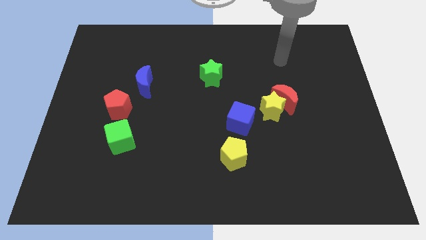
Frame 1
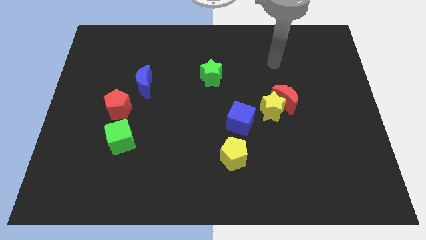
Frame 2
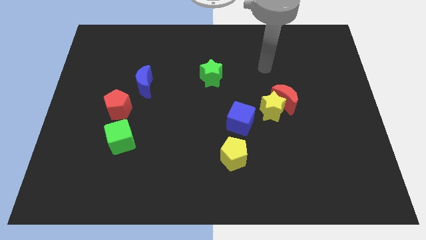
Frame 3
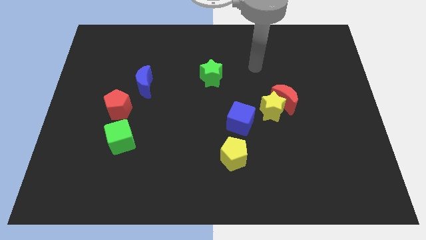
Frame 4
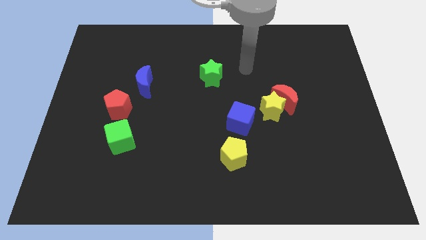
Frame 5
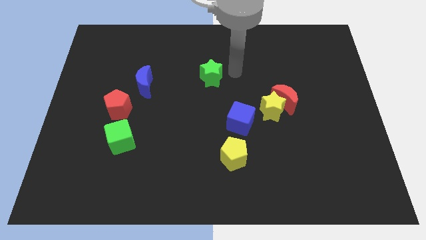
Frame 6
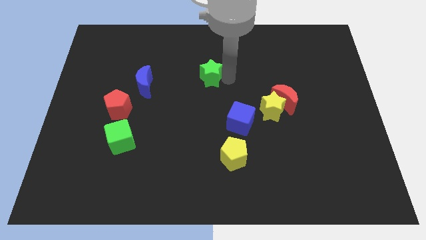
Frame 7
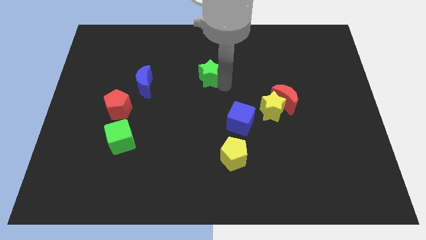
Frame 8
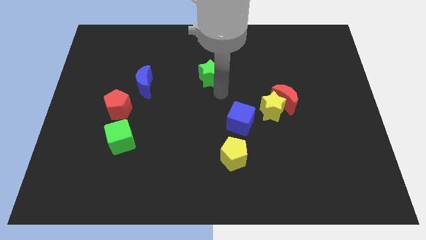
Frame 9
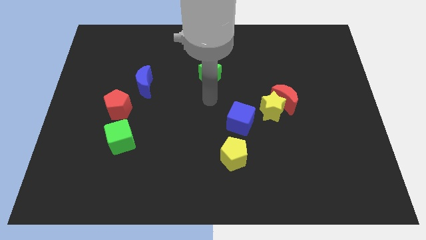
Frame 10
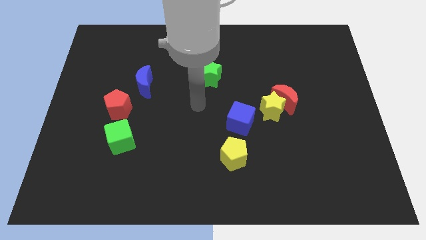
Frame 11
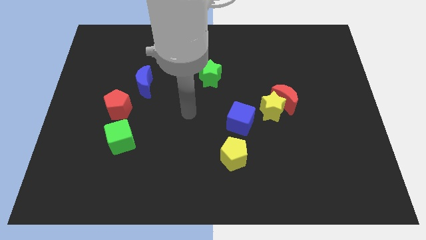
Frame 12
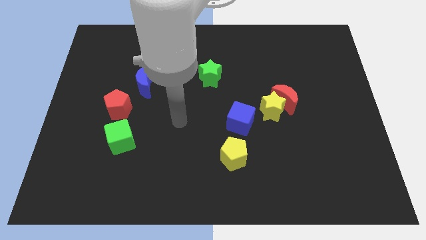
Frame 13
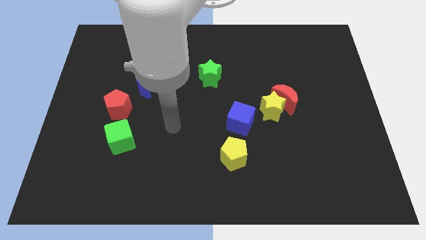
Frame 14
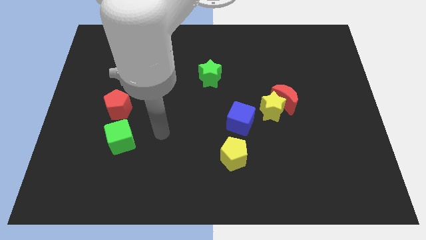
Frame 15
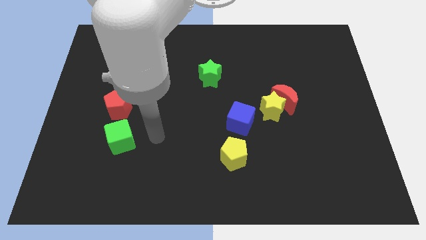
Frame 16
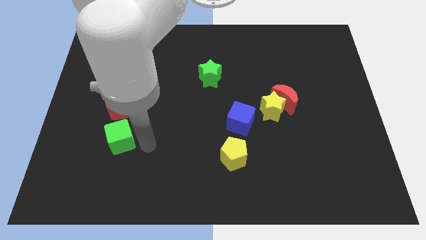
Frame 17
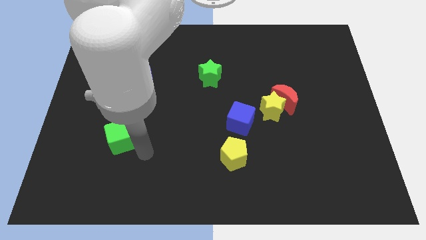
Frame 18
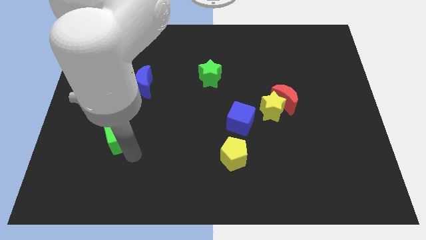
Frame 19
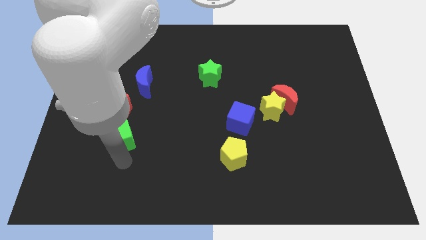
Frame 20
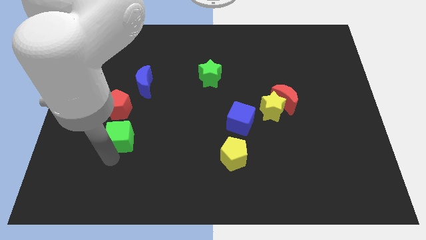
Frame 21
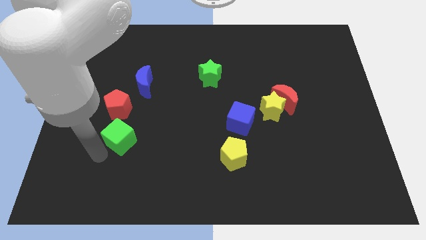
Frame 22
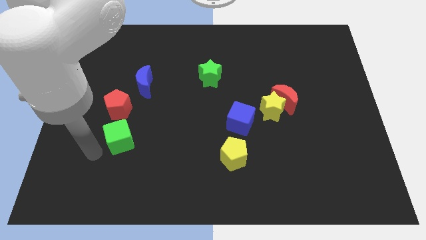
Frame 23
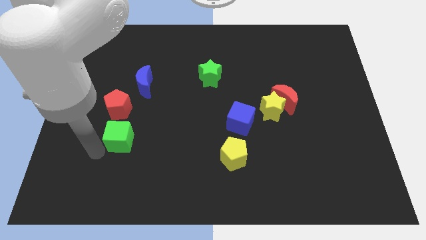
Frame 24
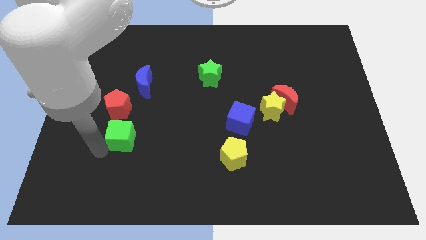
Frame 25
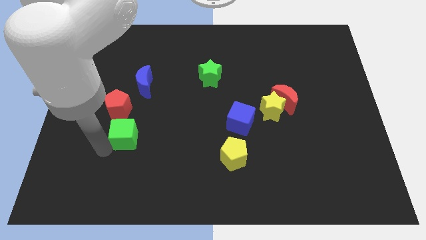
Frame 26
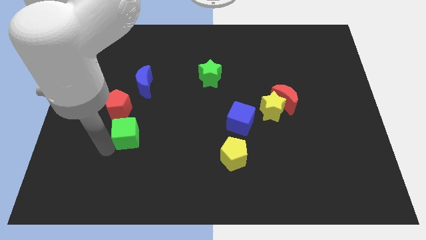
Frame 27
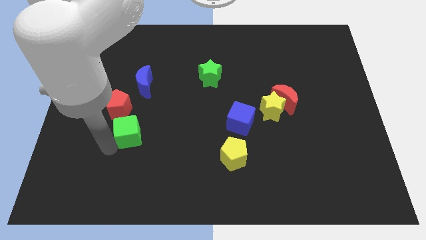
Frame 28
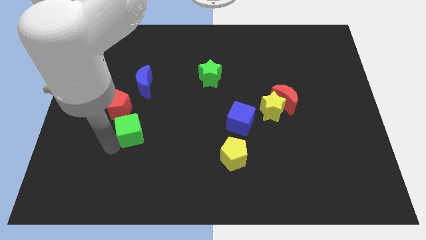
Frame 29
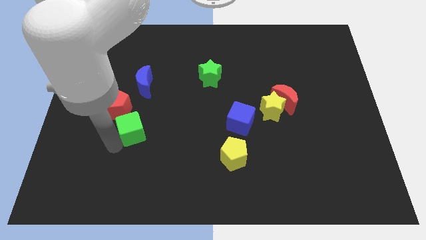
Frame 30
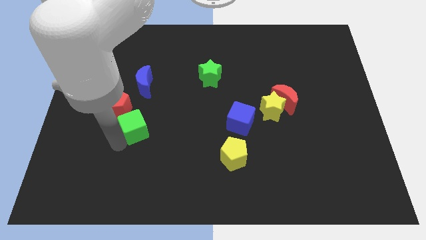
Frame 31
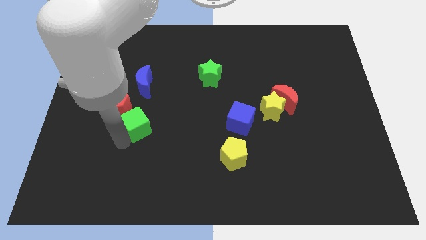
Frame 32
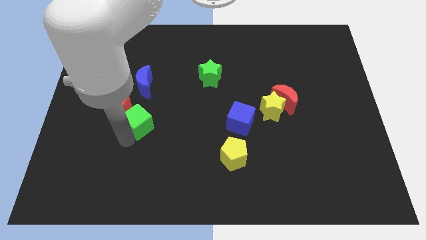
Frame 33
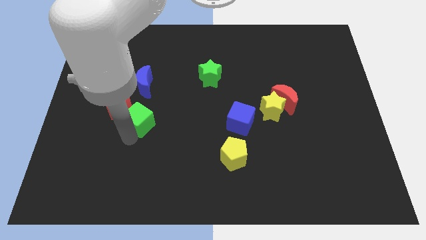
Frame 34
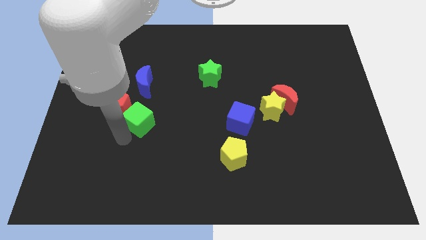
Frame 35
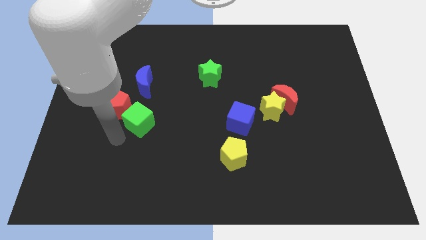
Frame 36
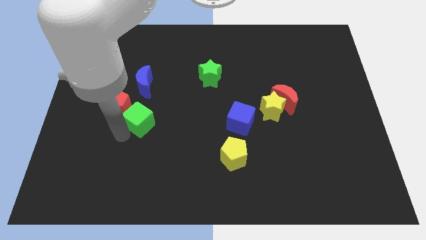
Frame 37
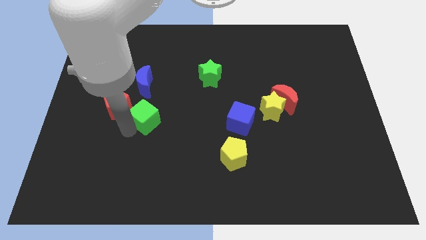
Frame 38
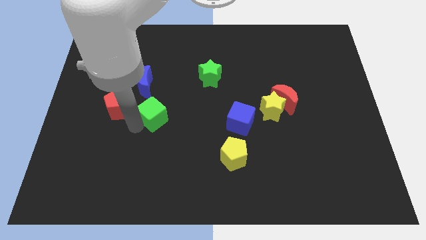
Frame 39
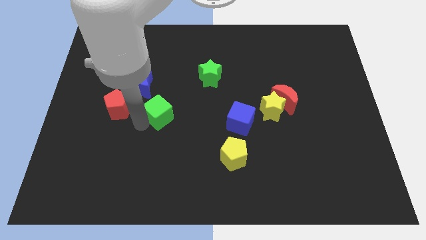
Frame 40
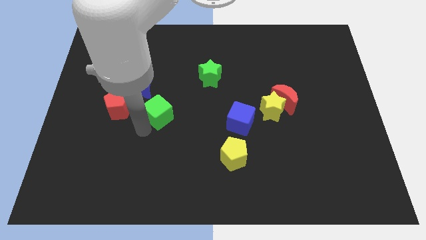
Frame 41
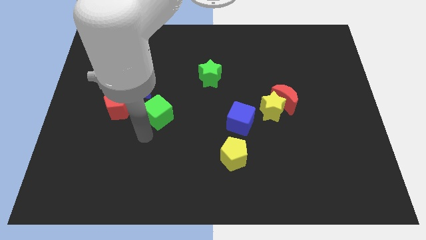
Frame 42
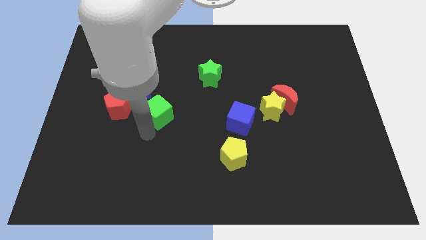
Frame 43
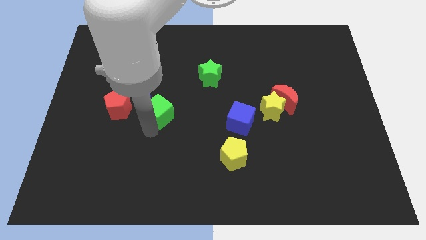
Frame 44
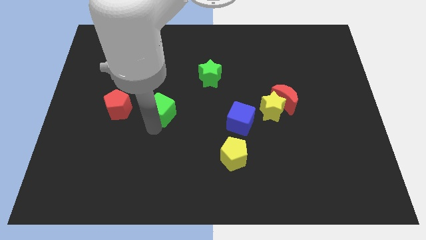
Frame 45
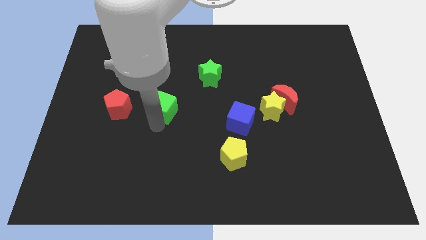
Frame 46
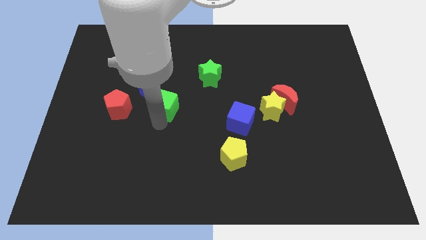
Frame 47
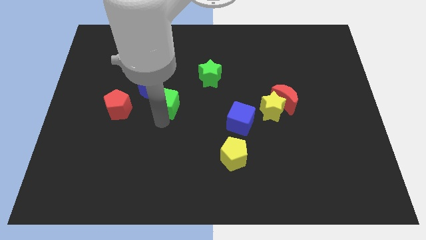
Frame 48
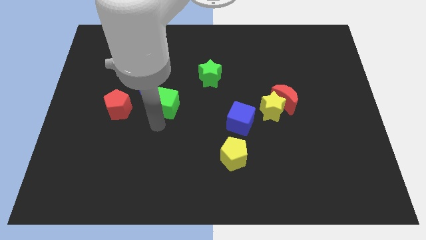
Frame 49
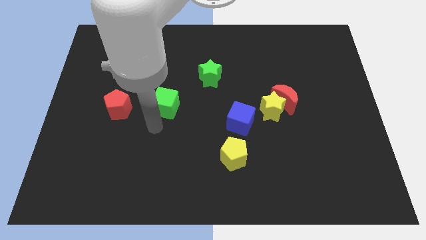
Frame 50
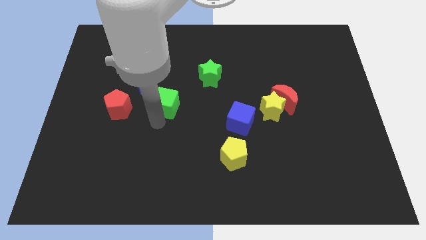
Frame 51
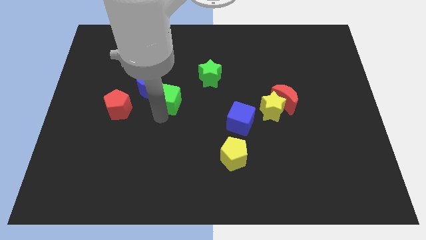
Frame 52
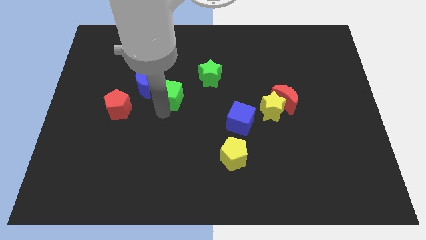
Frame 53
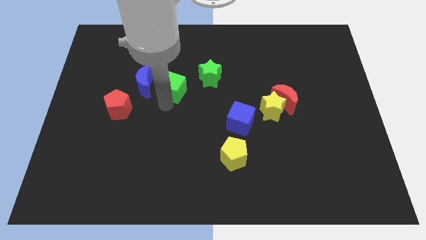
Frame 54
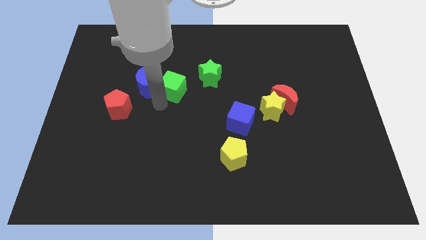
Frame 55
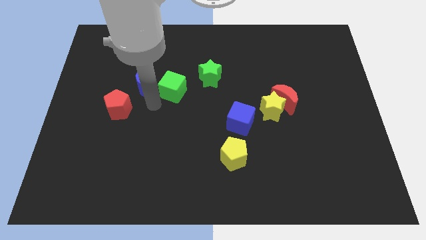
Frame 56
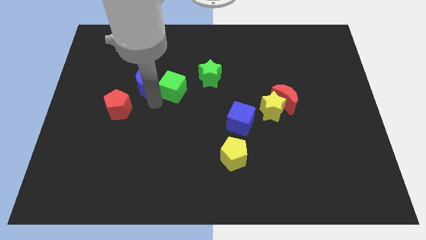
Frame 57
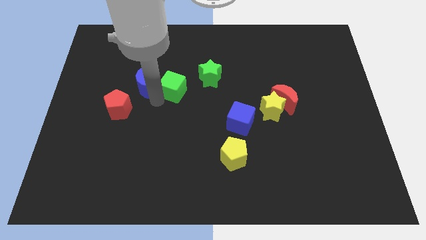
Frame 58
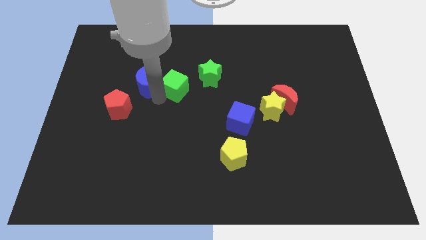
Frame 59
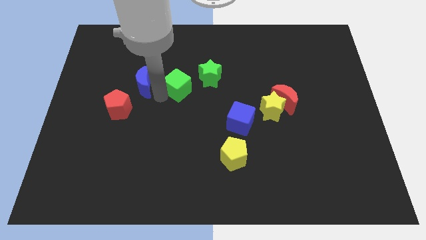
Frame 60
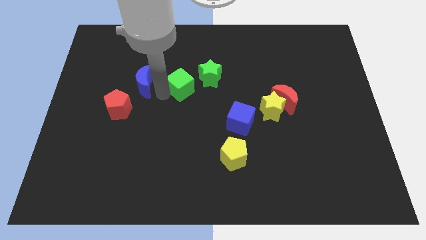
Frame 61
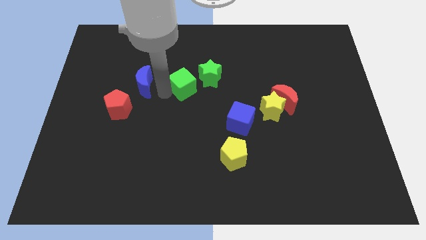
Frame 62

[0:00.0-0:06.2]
slide the green cube diagonally upwards and right

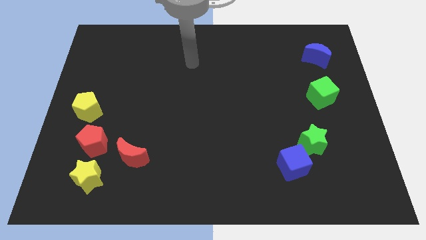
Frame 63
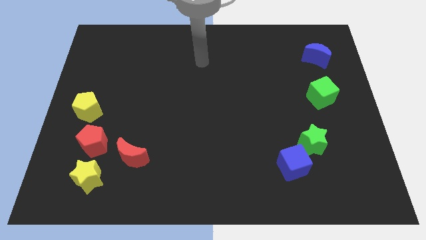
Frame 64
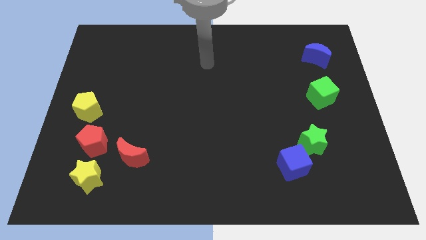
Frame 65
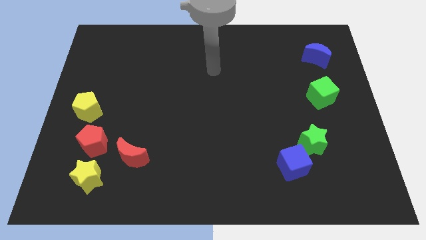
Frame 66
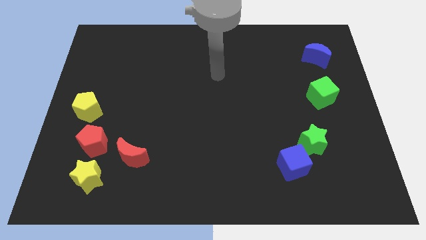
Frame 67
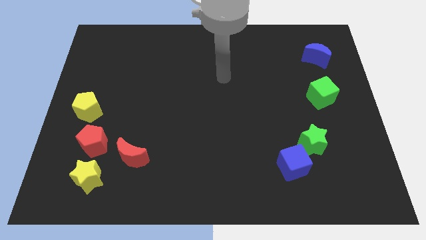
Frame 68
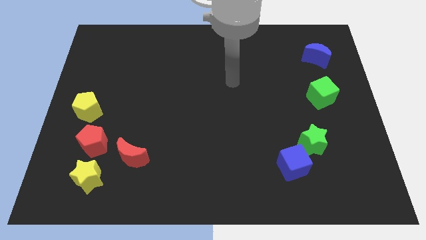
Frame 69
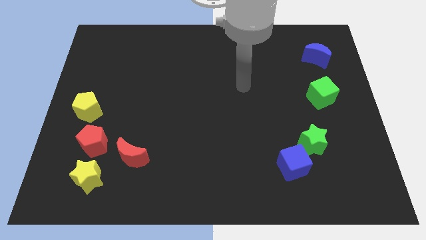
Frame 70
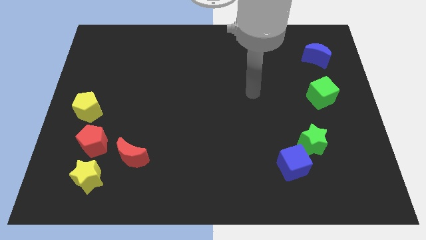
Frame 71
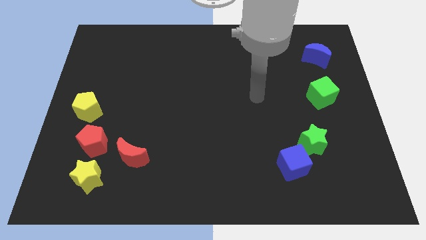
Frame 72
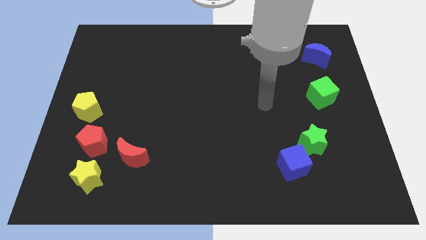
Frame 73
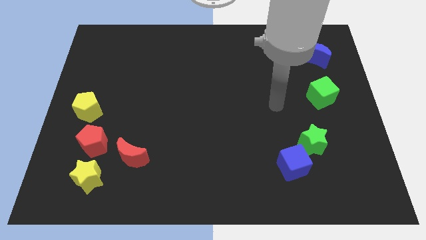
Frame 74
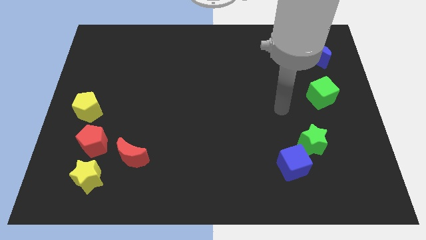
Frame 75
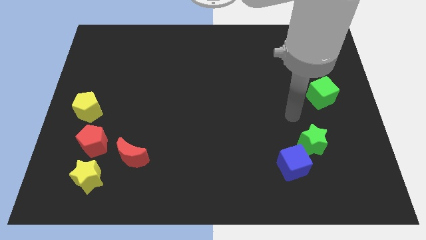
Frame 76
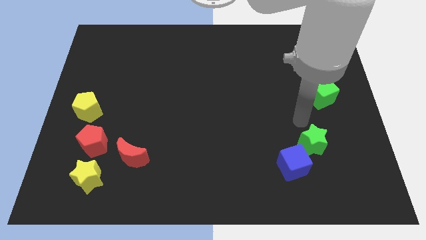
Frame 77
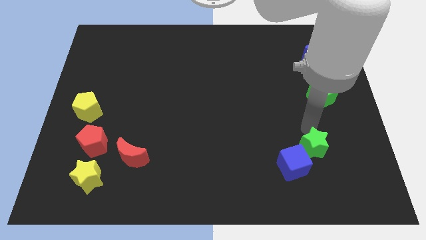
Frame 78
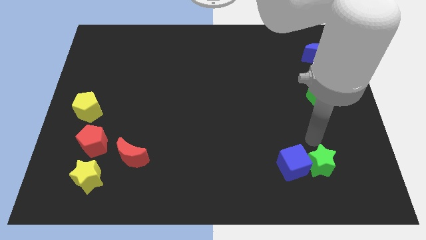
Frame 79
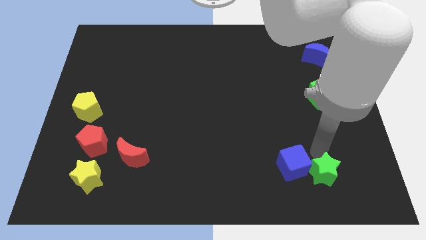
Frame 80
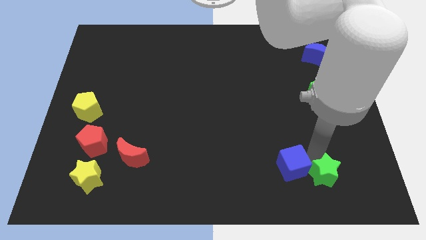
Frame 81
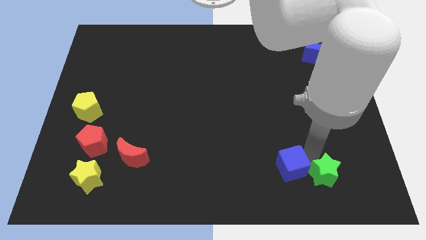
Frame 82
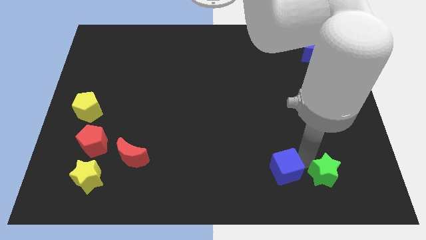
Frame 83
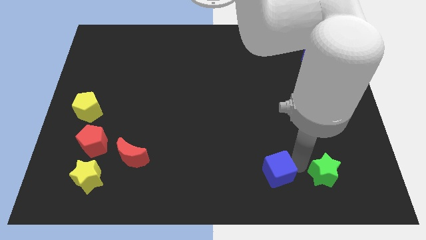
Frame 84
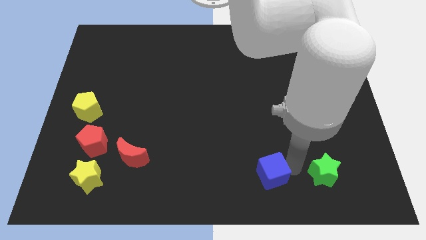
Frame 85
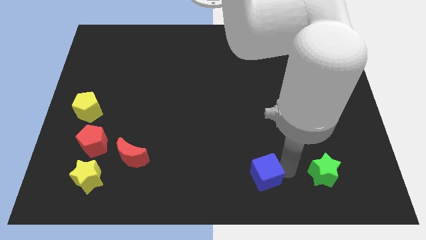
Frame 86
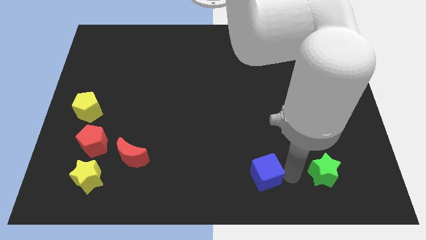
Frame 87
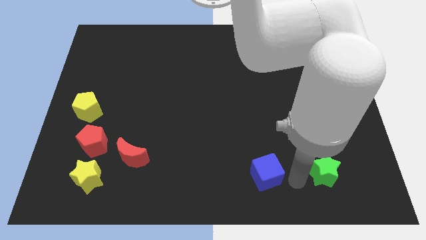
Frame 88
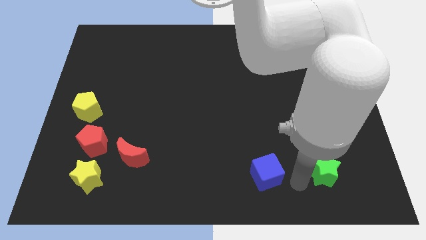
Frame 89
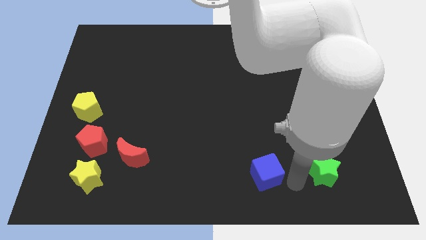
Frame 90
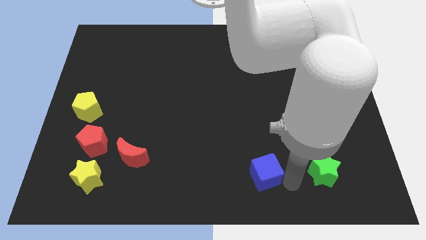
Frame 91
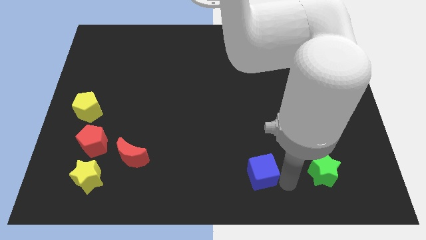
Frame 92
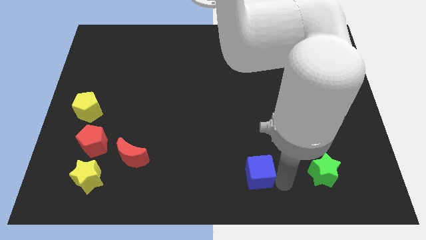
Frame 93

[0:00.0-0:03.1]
move the blue cube slightly to the left
